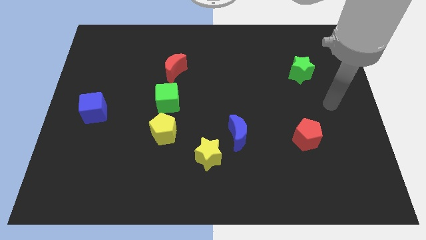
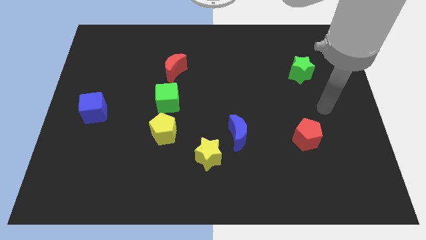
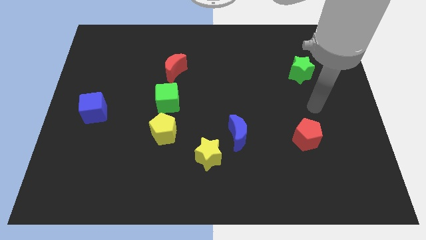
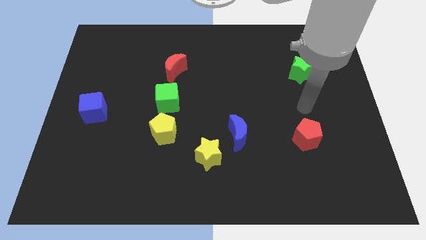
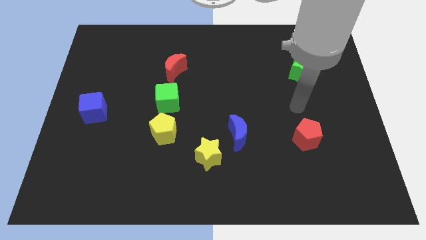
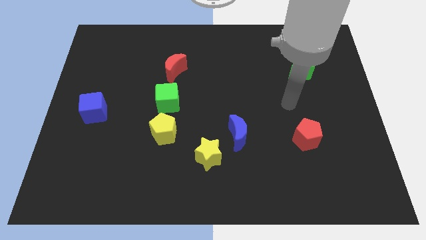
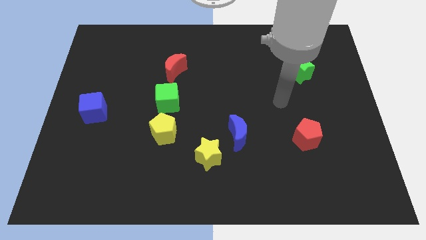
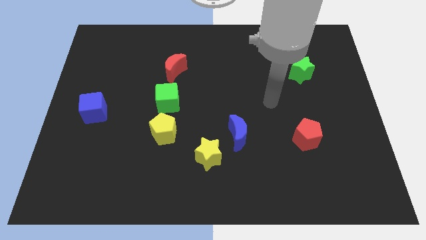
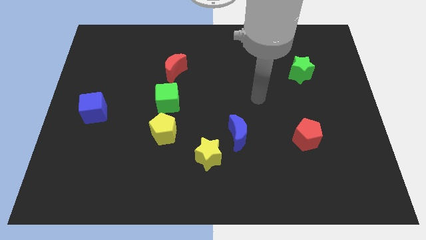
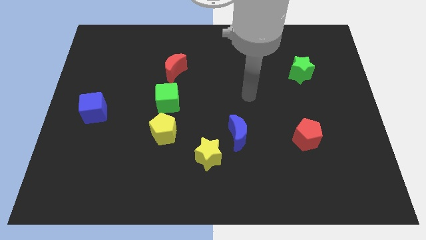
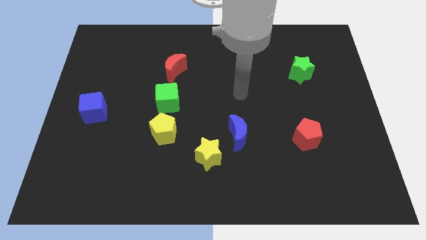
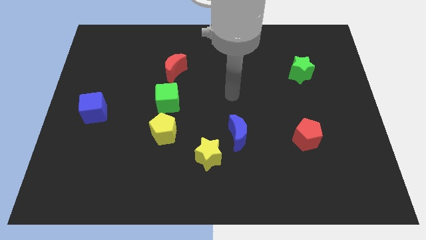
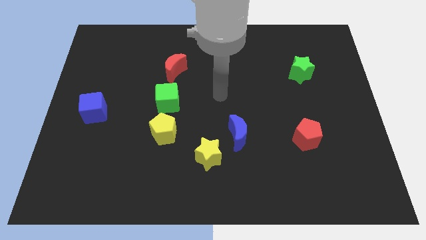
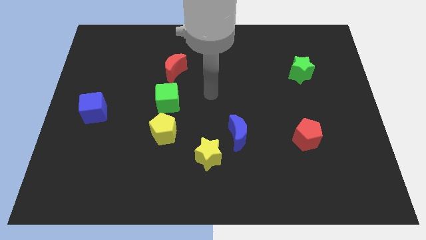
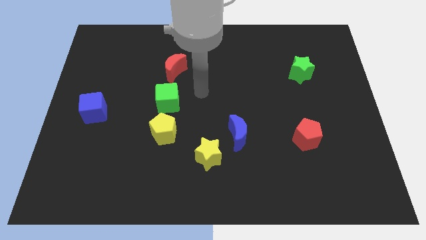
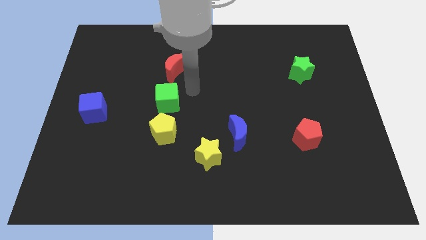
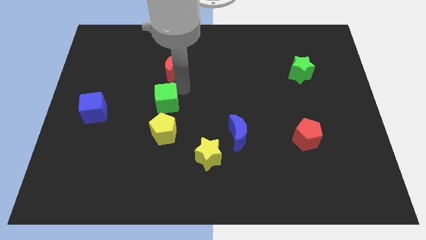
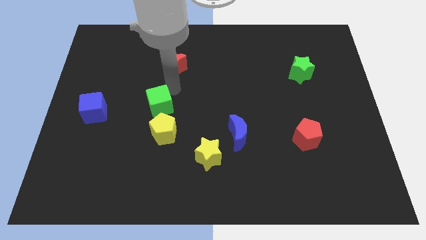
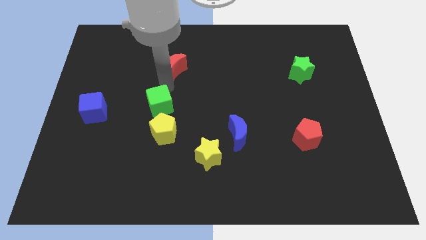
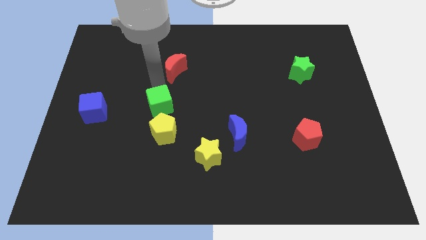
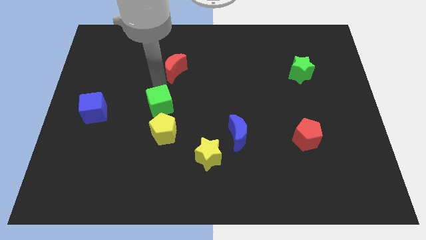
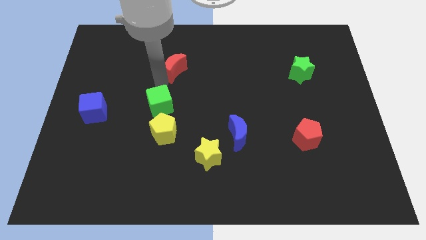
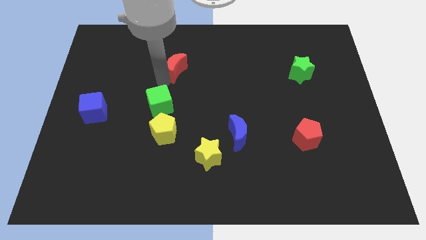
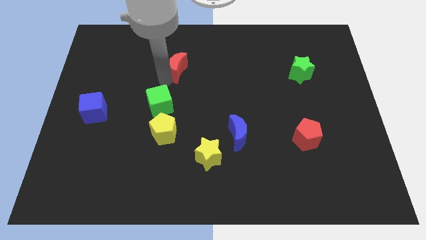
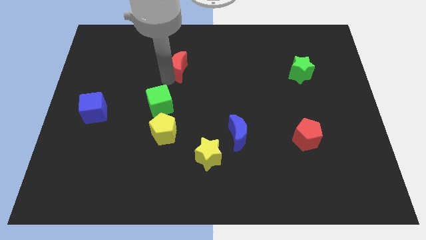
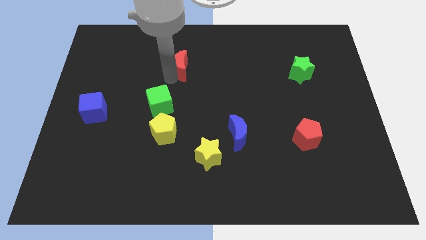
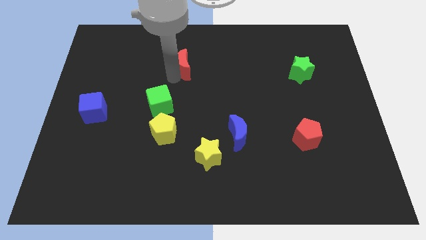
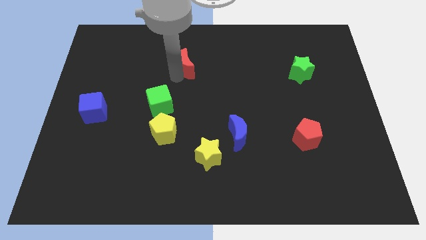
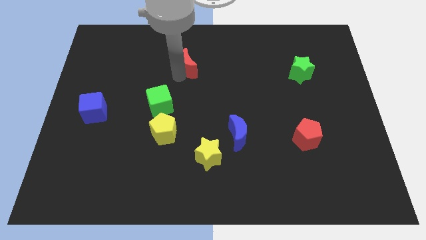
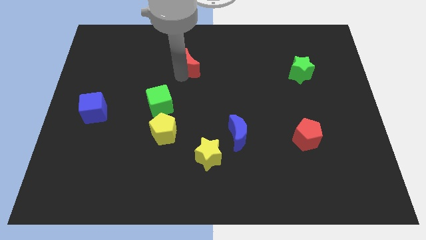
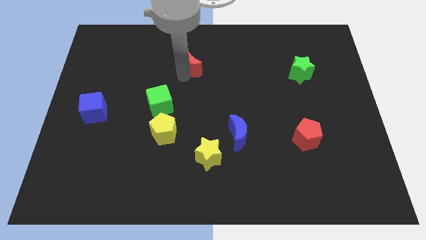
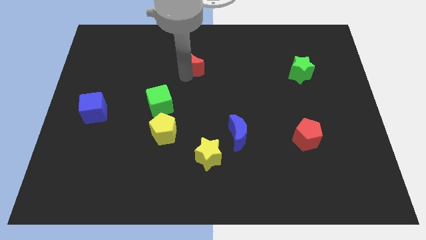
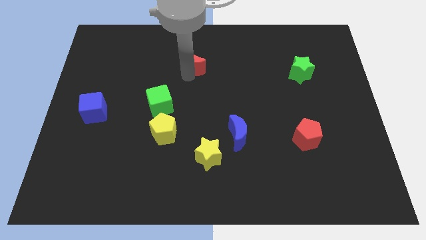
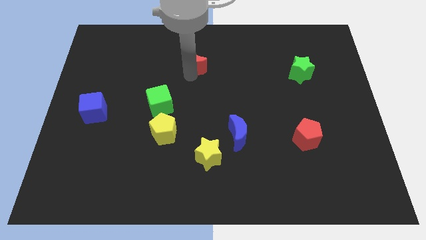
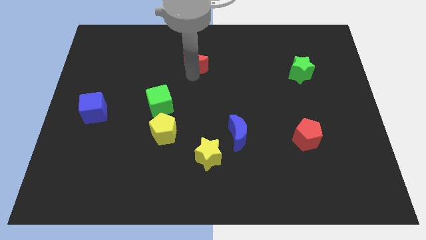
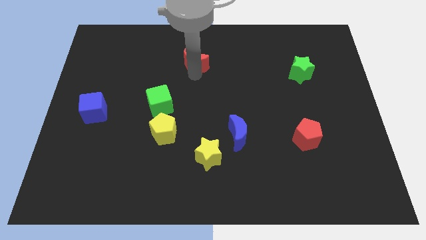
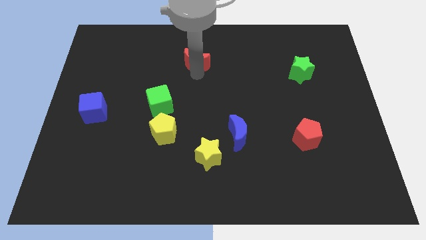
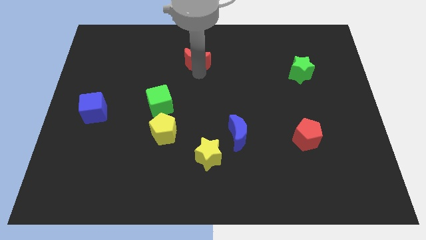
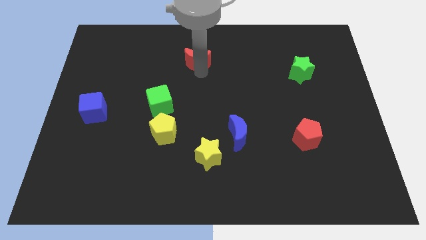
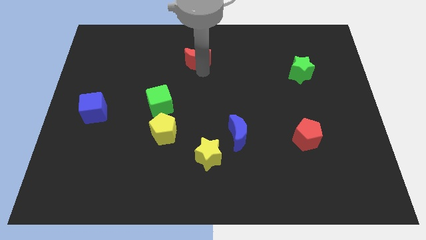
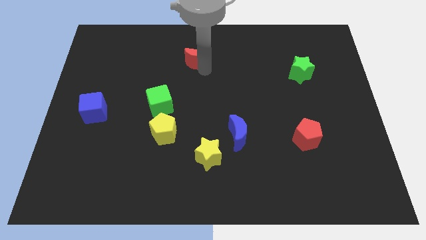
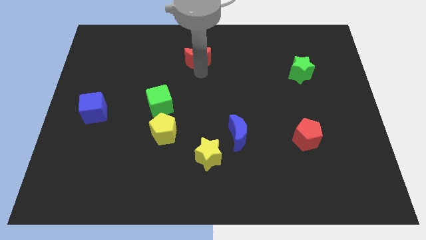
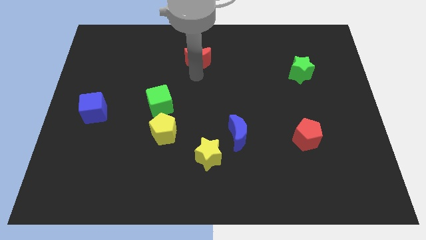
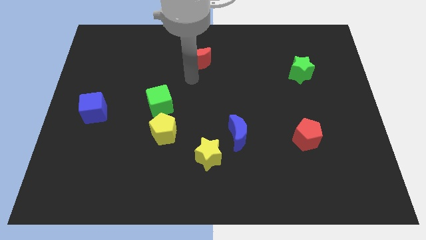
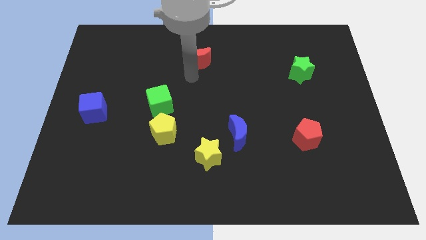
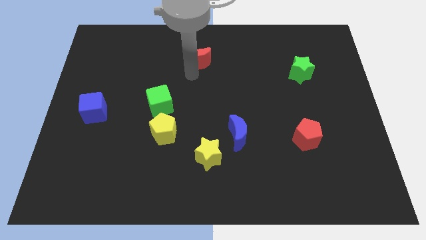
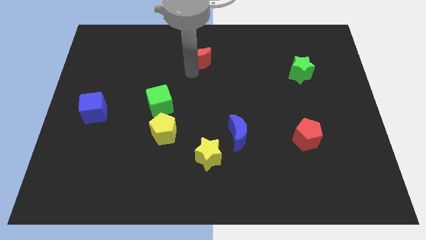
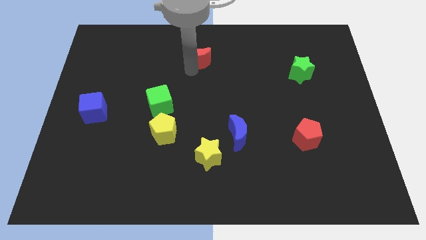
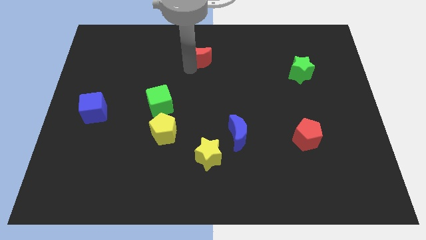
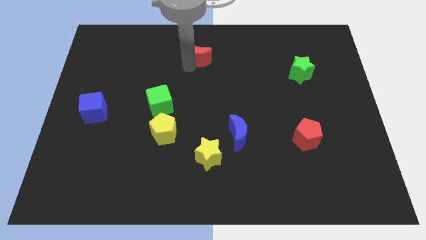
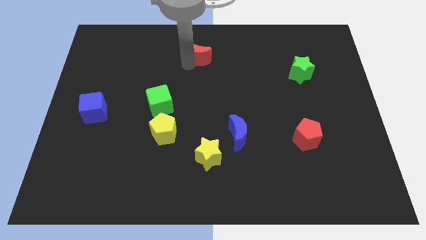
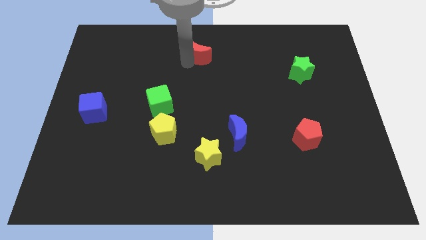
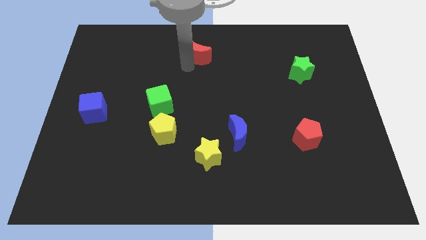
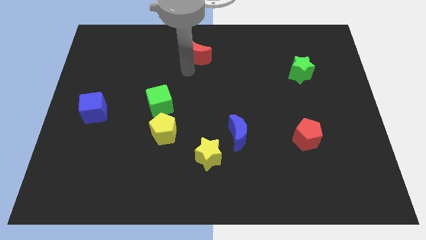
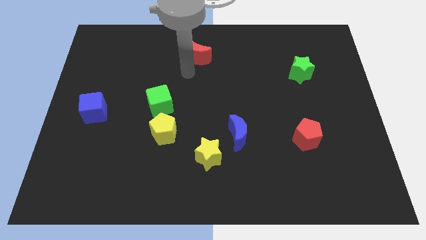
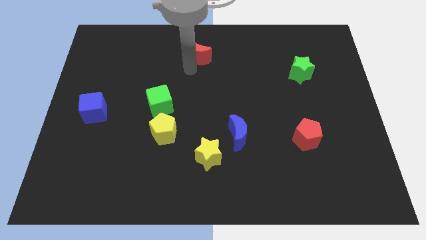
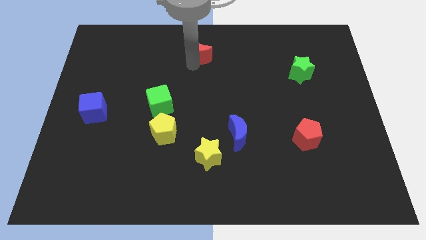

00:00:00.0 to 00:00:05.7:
put the red moon to the top
